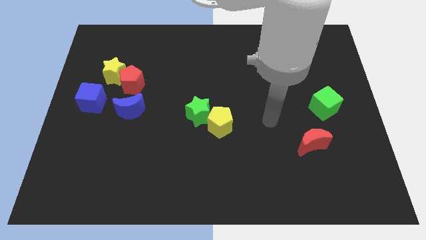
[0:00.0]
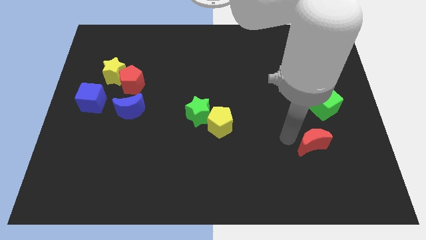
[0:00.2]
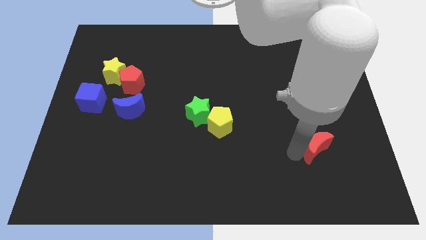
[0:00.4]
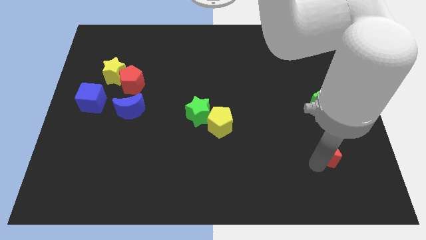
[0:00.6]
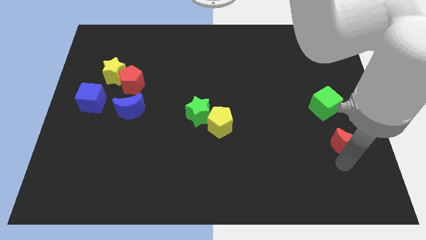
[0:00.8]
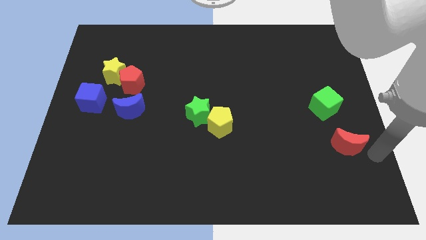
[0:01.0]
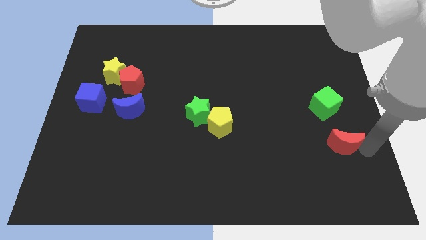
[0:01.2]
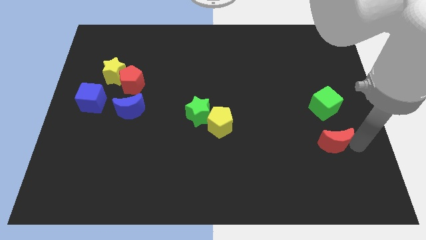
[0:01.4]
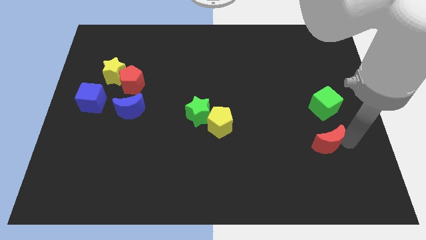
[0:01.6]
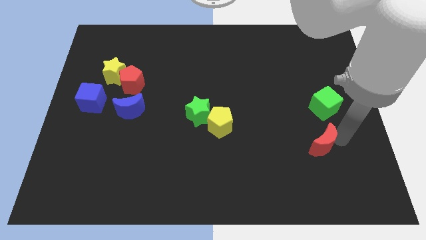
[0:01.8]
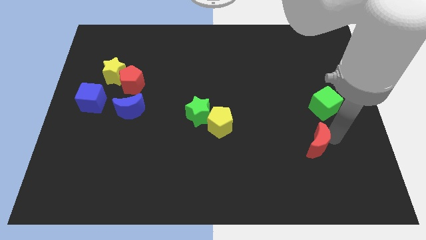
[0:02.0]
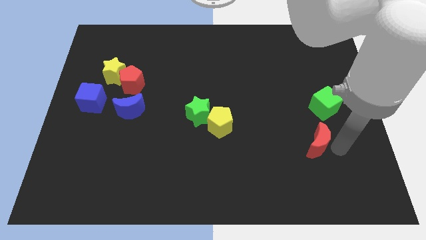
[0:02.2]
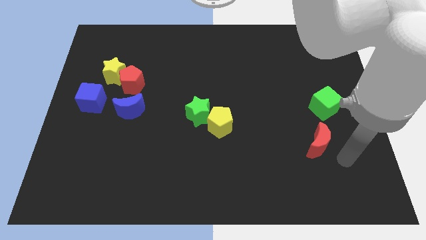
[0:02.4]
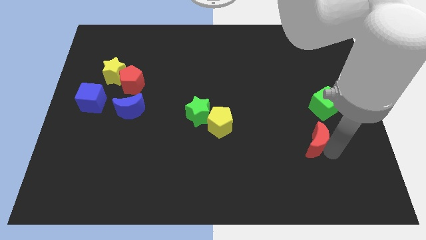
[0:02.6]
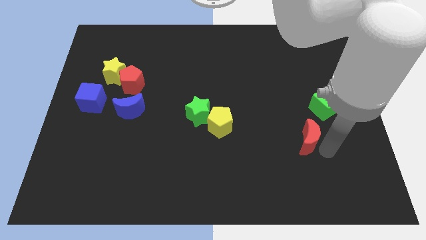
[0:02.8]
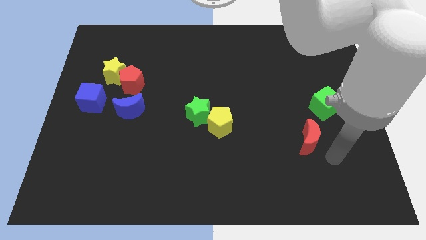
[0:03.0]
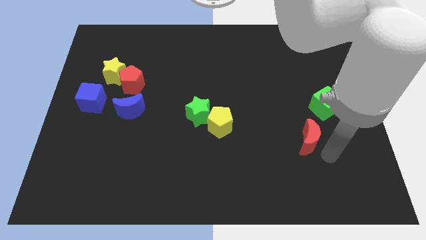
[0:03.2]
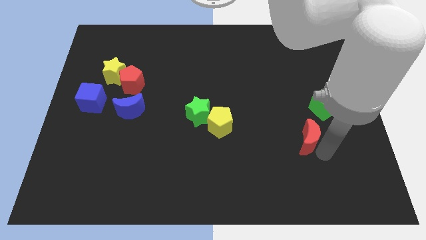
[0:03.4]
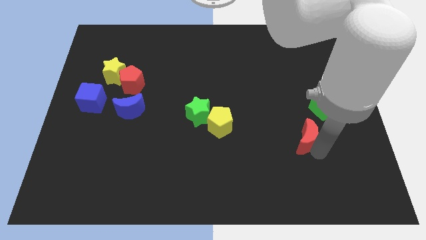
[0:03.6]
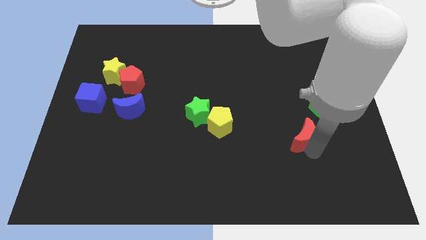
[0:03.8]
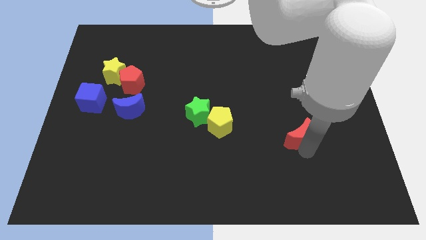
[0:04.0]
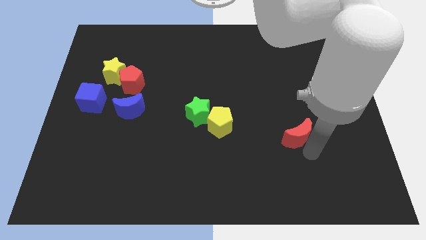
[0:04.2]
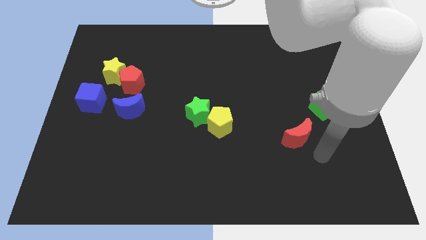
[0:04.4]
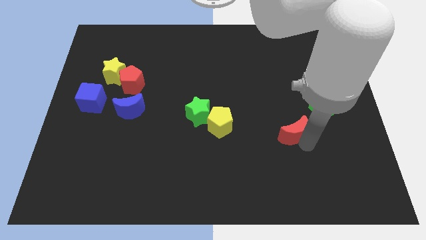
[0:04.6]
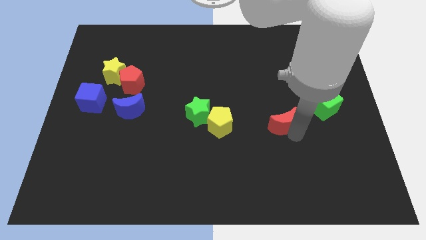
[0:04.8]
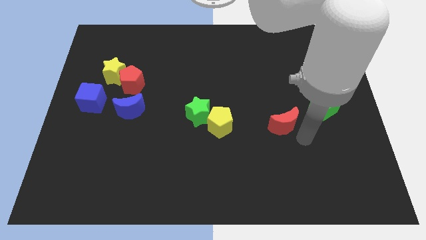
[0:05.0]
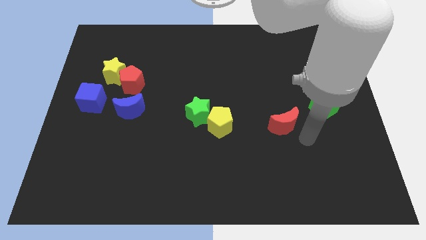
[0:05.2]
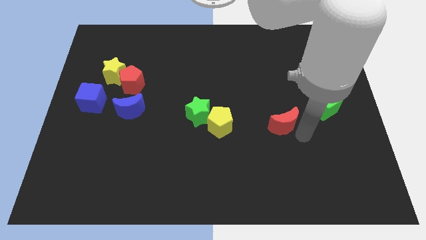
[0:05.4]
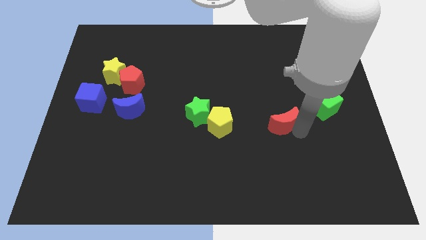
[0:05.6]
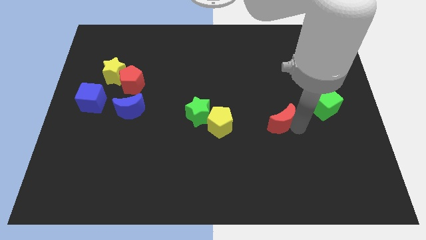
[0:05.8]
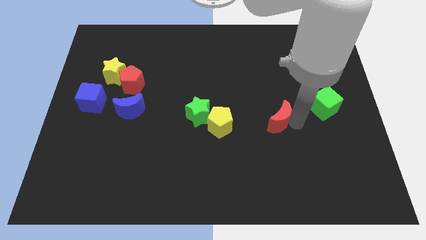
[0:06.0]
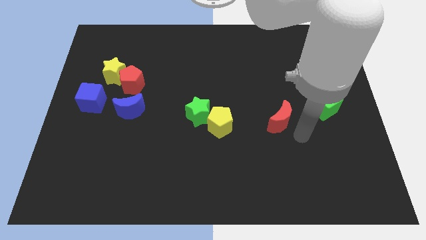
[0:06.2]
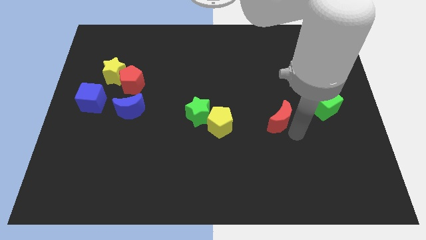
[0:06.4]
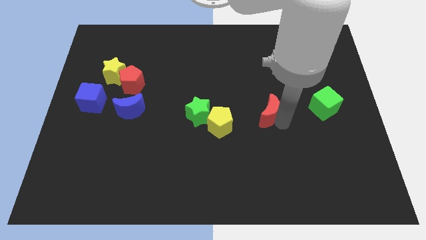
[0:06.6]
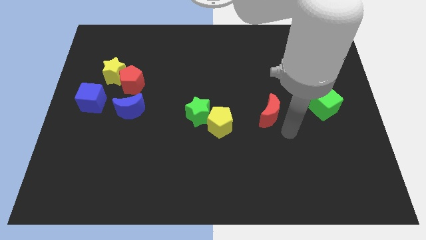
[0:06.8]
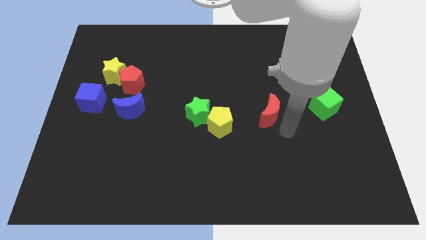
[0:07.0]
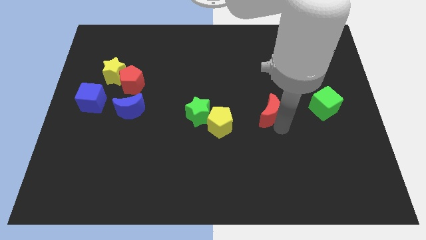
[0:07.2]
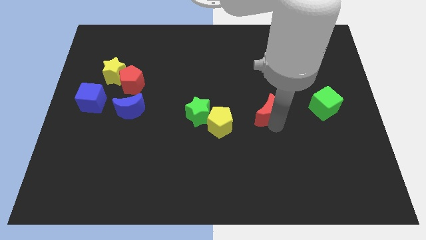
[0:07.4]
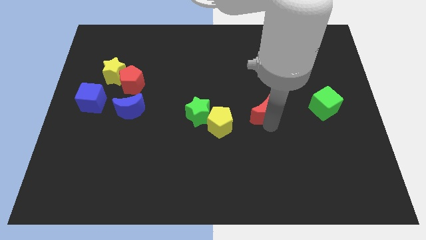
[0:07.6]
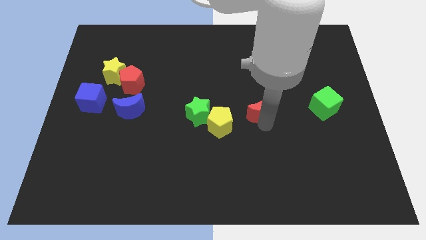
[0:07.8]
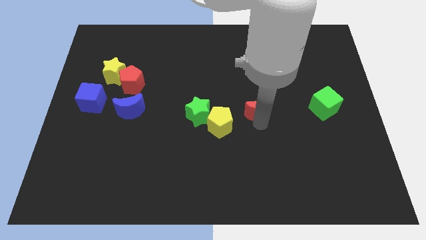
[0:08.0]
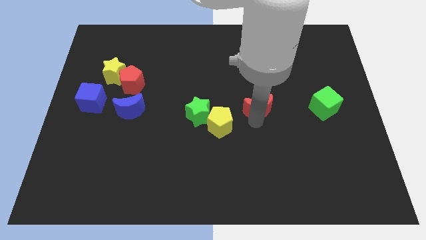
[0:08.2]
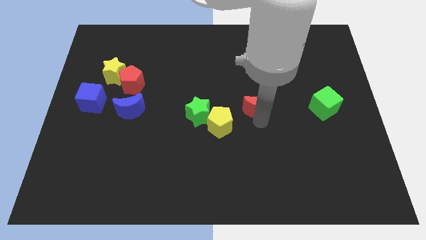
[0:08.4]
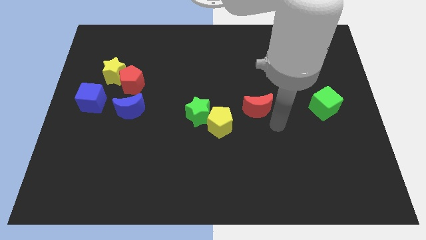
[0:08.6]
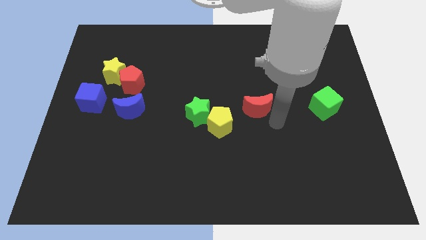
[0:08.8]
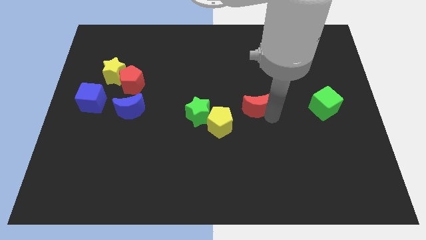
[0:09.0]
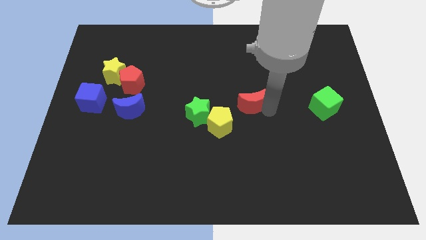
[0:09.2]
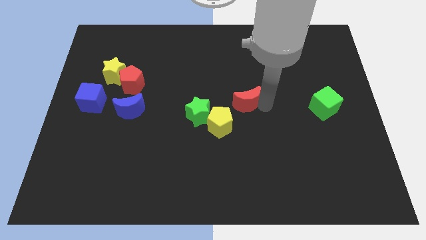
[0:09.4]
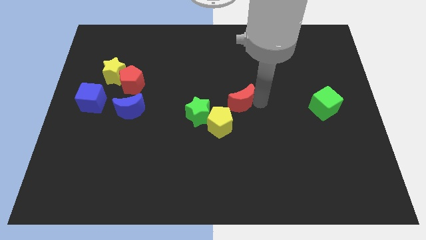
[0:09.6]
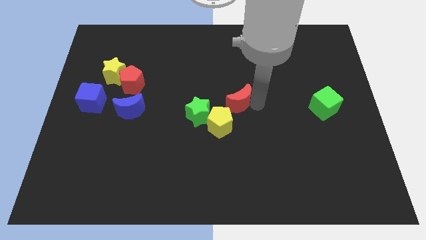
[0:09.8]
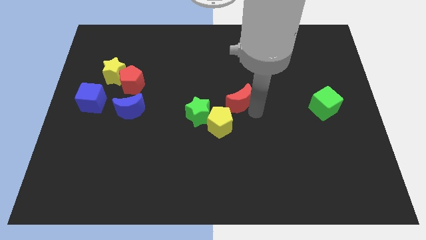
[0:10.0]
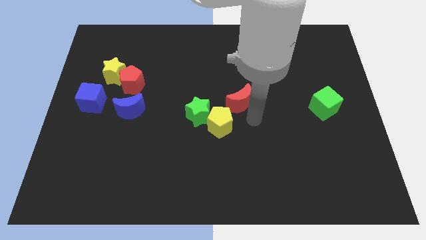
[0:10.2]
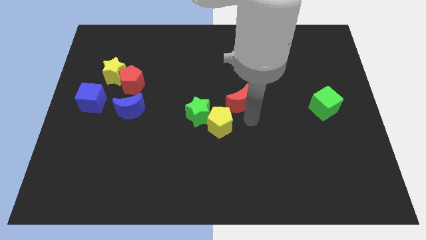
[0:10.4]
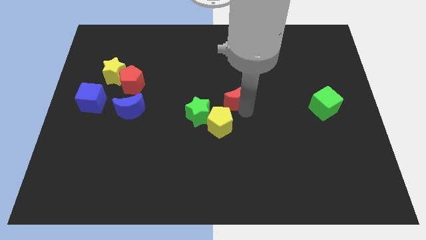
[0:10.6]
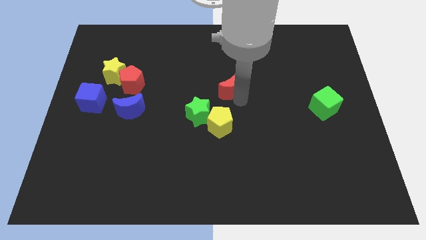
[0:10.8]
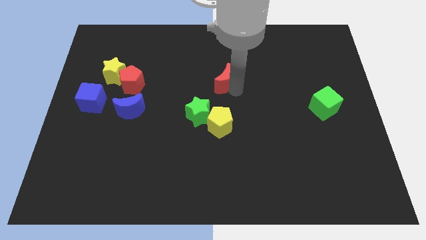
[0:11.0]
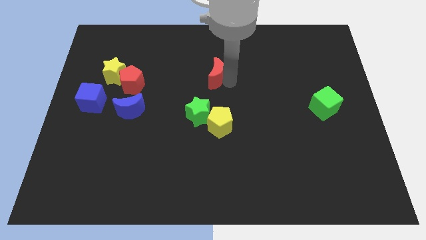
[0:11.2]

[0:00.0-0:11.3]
put the red moon to the top side of the green star

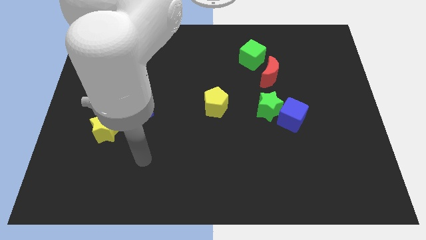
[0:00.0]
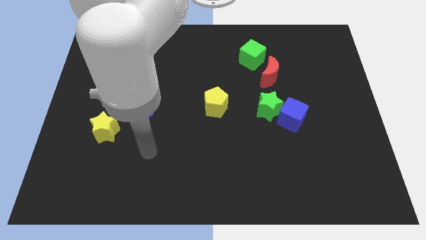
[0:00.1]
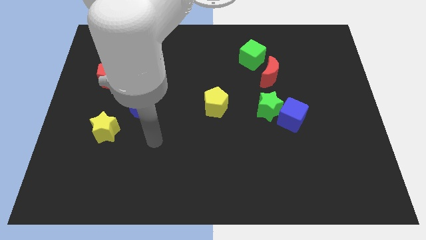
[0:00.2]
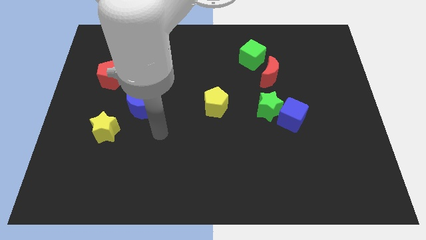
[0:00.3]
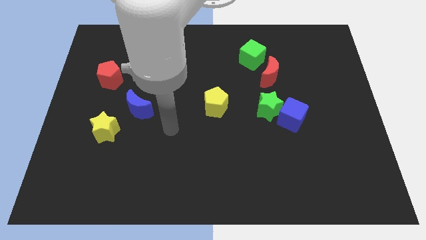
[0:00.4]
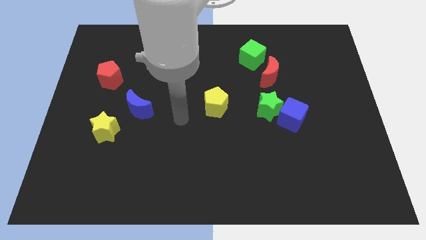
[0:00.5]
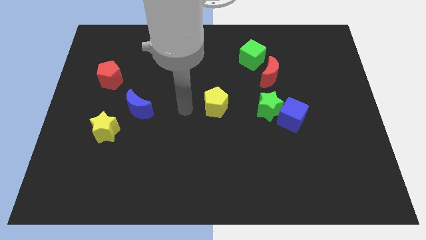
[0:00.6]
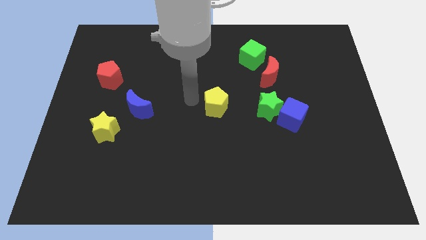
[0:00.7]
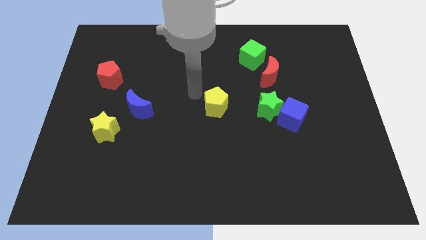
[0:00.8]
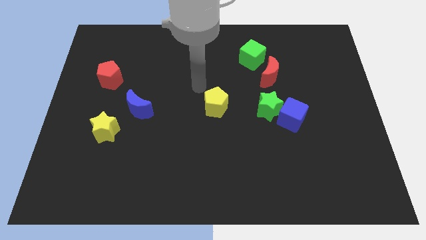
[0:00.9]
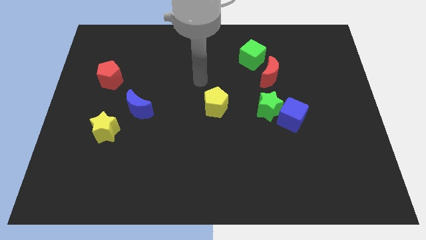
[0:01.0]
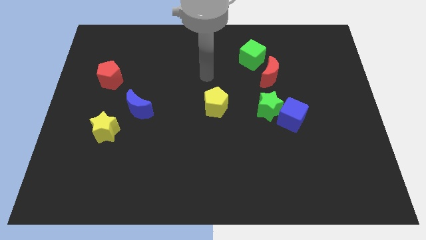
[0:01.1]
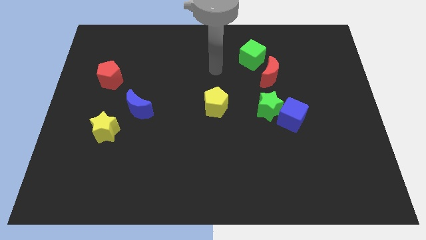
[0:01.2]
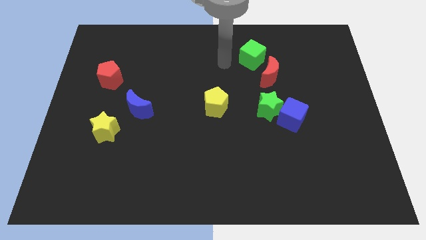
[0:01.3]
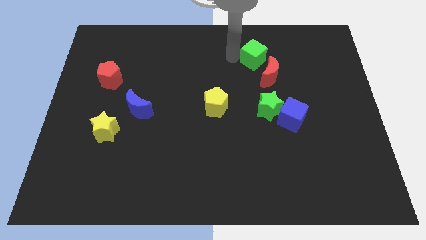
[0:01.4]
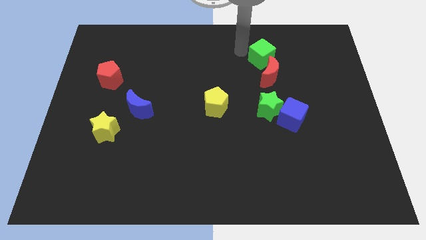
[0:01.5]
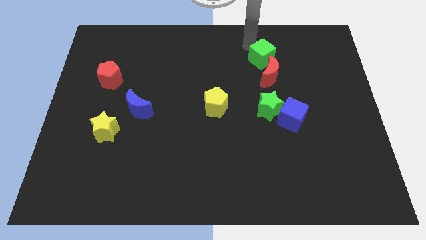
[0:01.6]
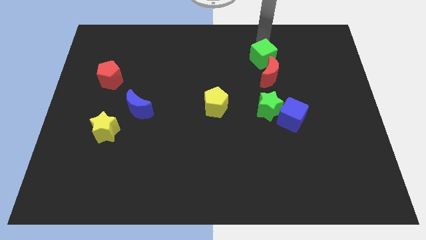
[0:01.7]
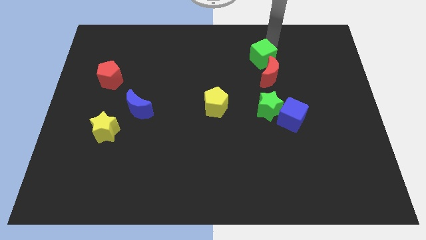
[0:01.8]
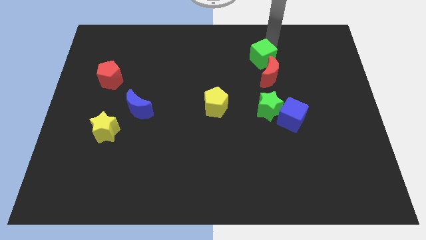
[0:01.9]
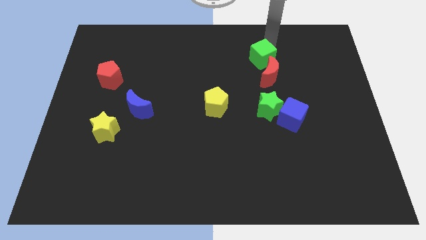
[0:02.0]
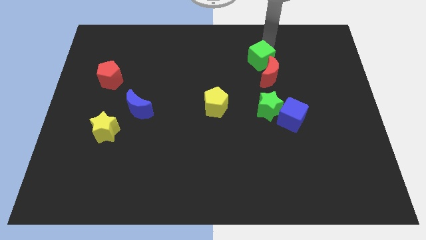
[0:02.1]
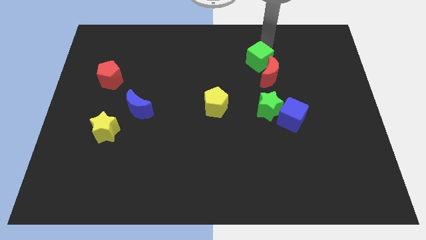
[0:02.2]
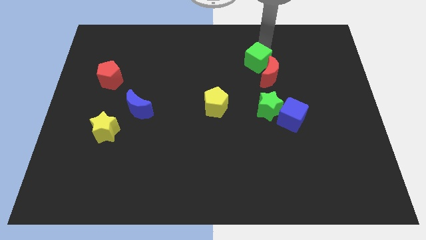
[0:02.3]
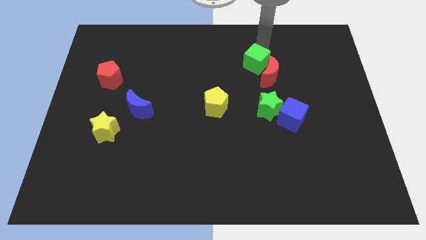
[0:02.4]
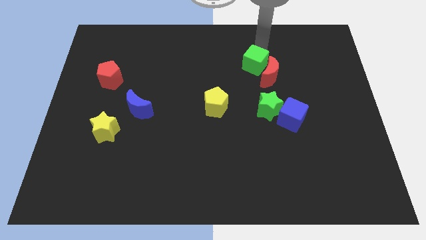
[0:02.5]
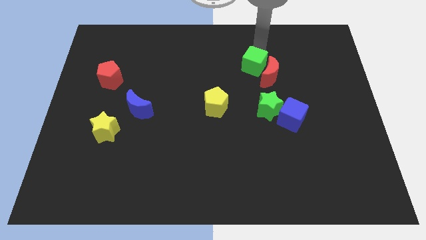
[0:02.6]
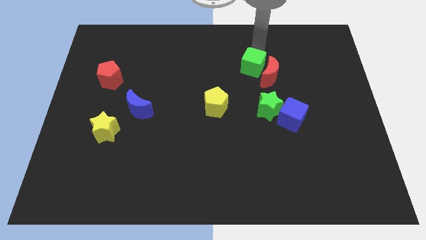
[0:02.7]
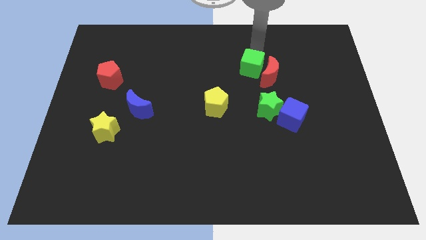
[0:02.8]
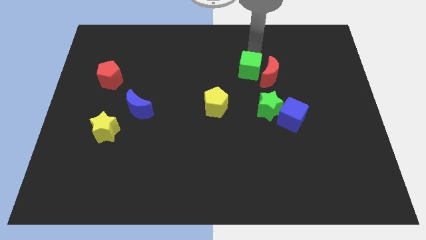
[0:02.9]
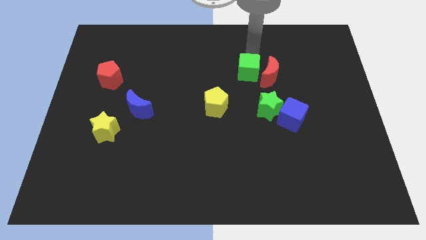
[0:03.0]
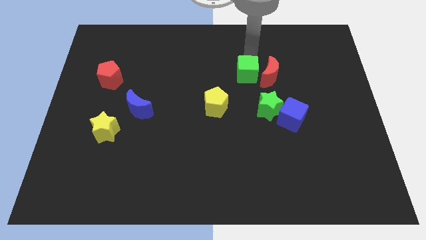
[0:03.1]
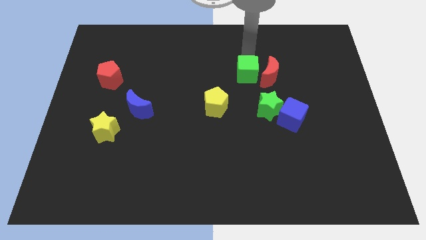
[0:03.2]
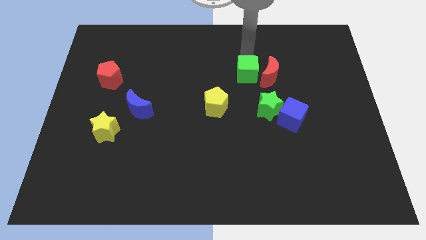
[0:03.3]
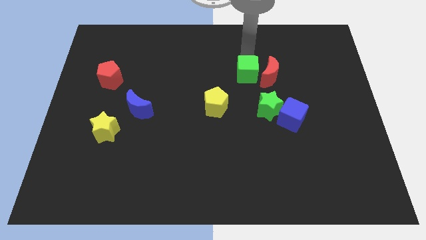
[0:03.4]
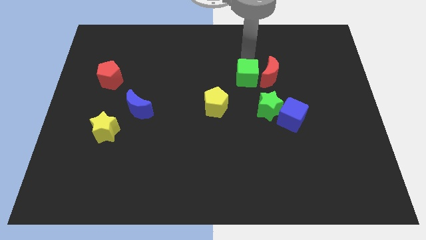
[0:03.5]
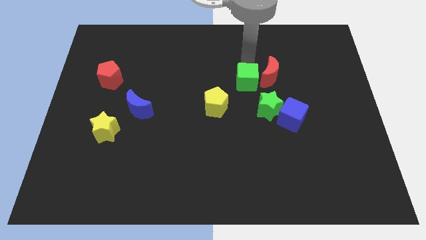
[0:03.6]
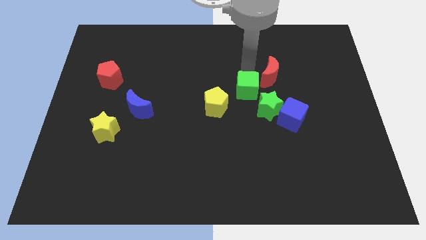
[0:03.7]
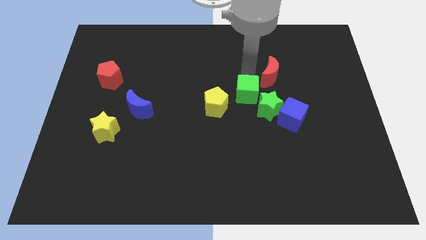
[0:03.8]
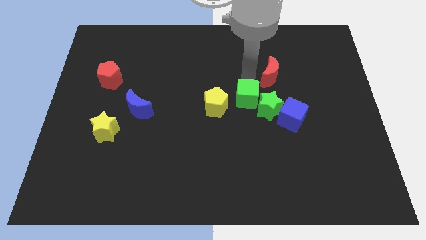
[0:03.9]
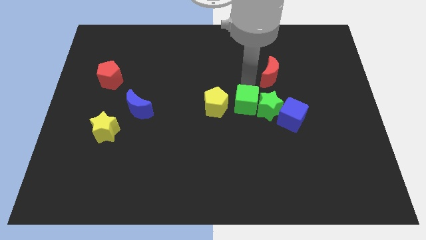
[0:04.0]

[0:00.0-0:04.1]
slide the green cube just left of the blue cube
